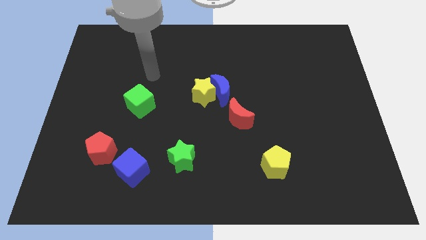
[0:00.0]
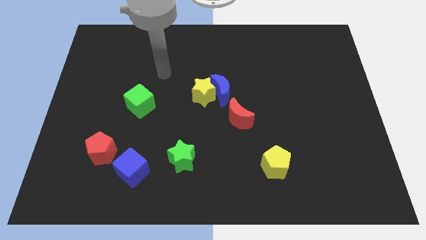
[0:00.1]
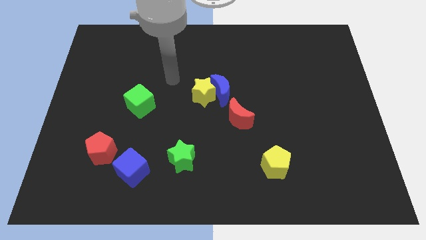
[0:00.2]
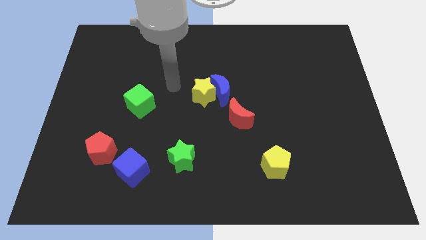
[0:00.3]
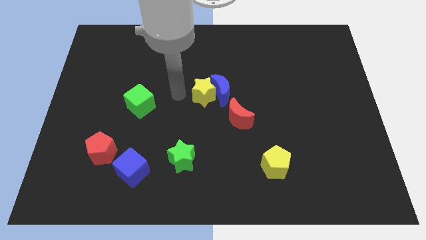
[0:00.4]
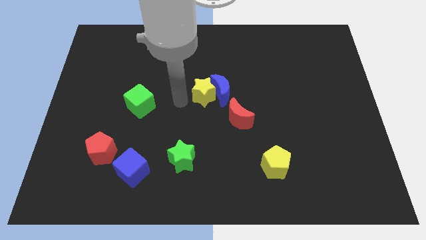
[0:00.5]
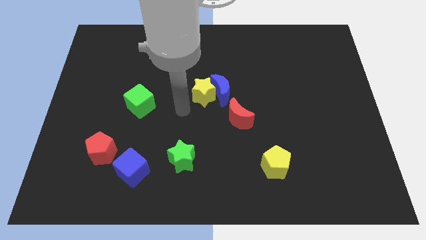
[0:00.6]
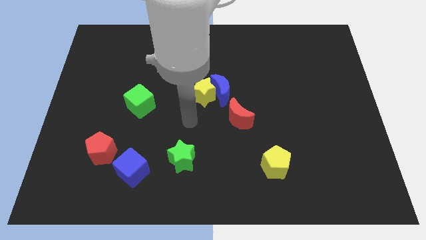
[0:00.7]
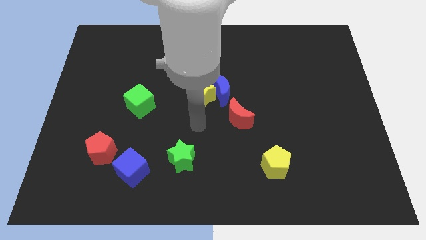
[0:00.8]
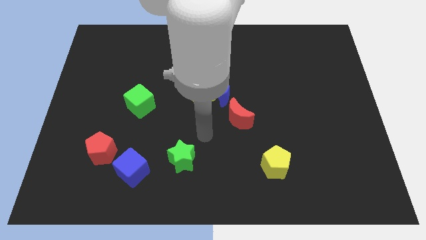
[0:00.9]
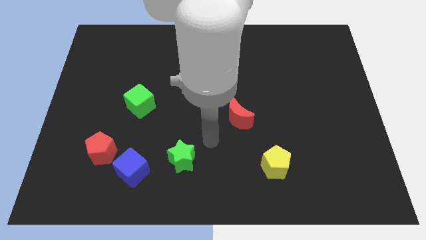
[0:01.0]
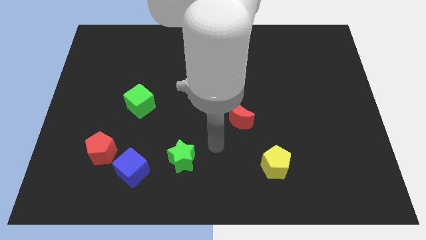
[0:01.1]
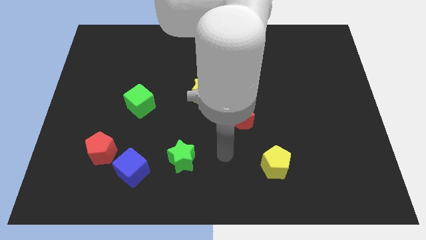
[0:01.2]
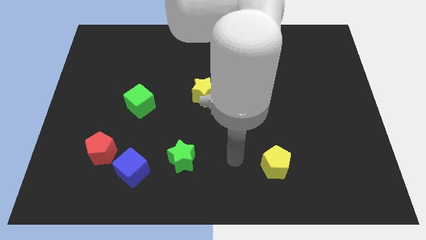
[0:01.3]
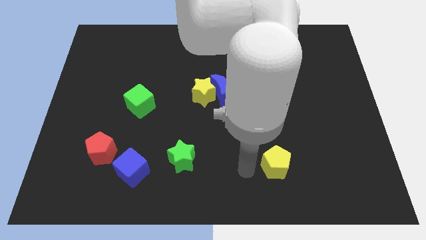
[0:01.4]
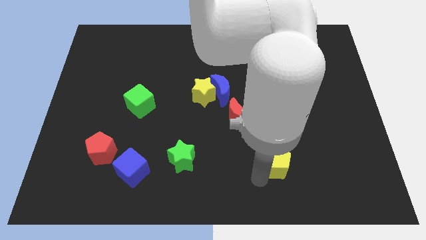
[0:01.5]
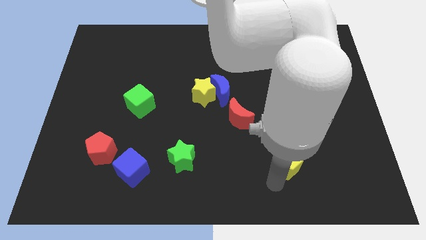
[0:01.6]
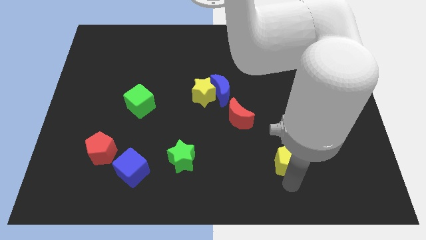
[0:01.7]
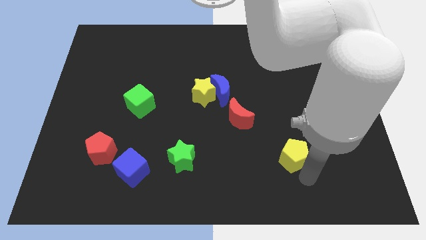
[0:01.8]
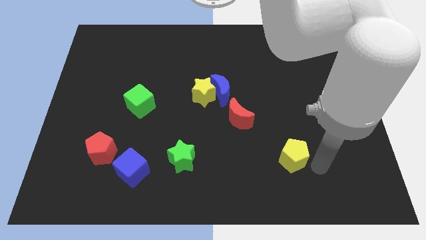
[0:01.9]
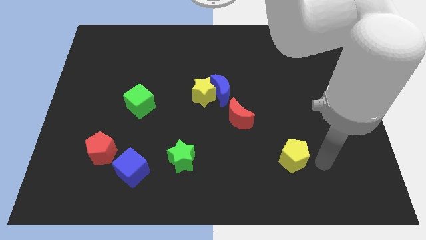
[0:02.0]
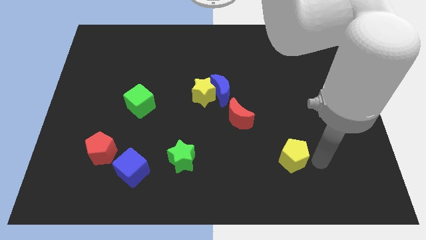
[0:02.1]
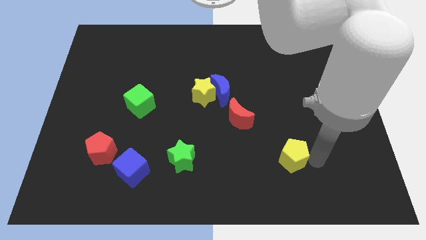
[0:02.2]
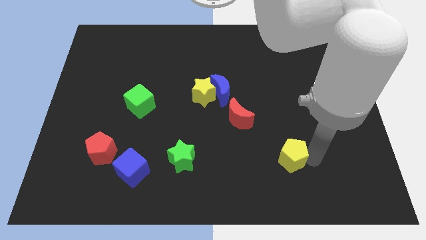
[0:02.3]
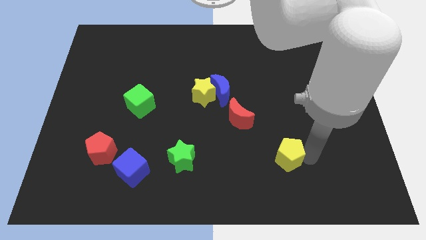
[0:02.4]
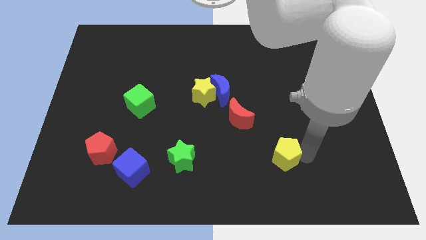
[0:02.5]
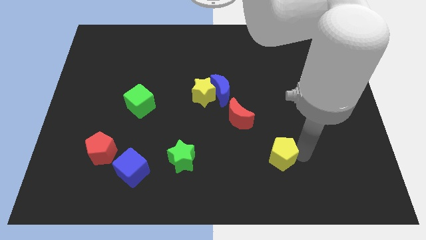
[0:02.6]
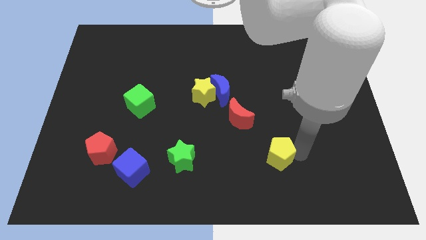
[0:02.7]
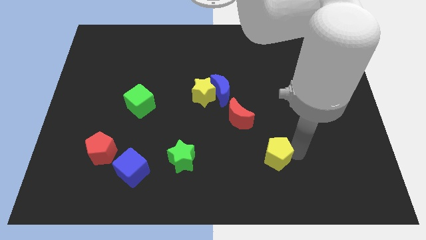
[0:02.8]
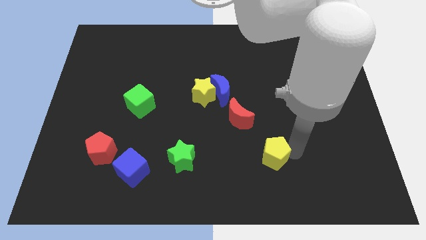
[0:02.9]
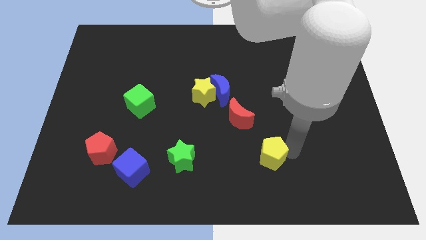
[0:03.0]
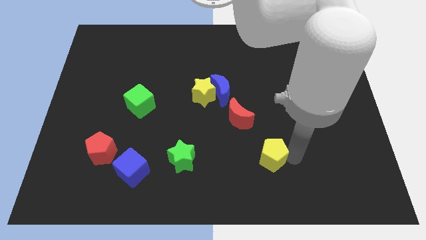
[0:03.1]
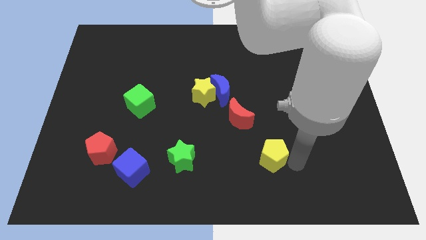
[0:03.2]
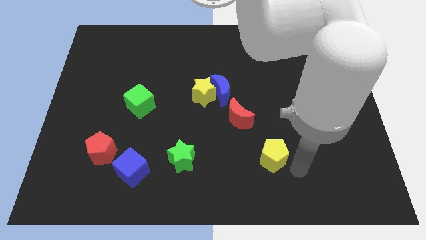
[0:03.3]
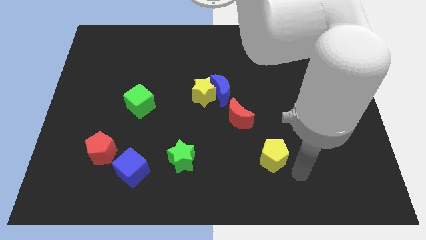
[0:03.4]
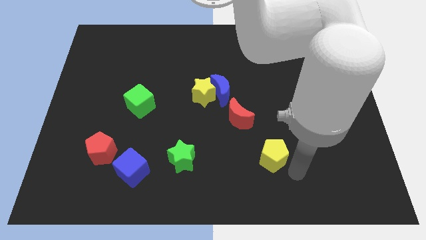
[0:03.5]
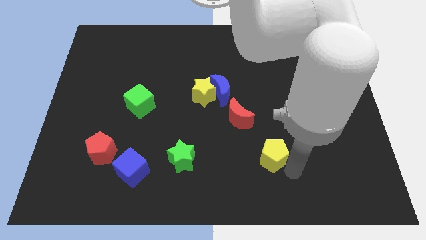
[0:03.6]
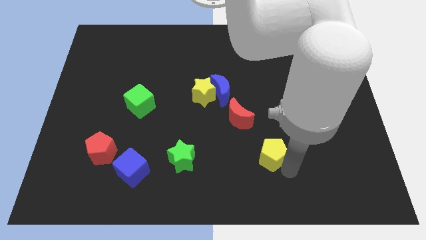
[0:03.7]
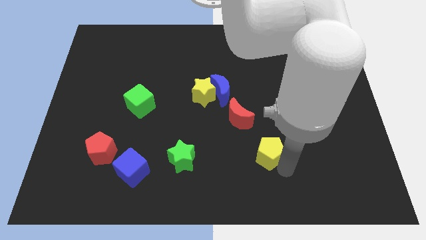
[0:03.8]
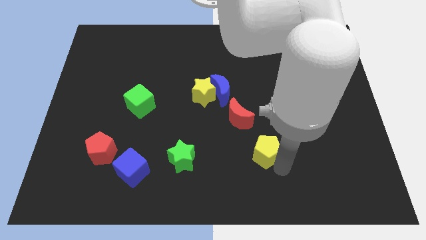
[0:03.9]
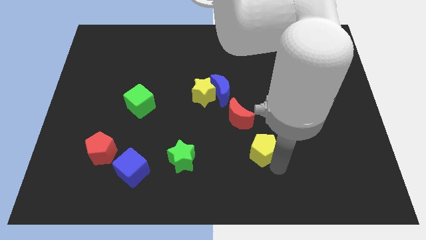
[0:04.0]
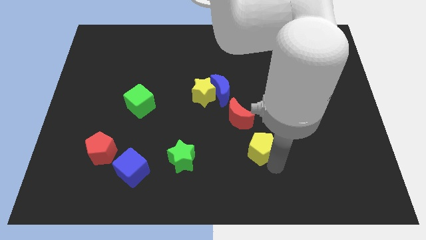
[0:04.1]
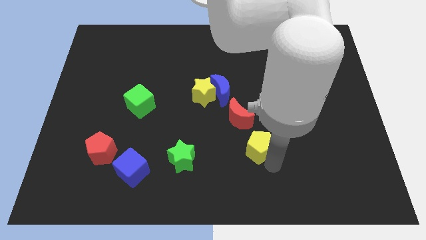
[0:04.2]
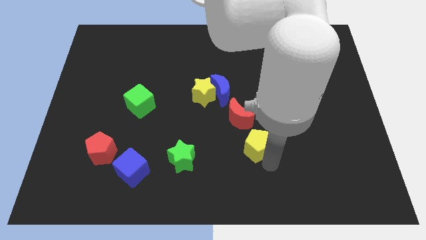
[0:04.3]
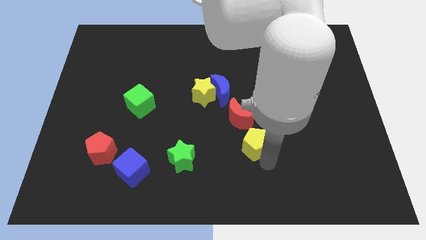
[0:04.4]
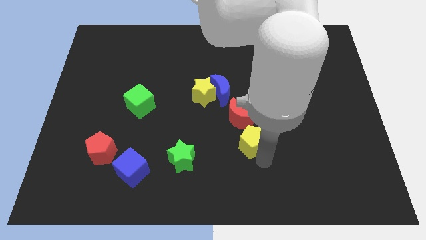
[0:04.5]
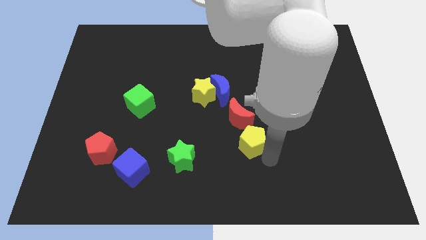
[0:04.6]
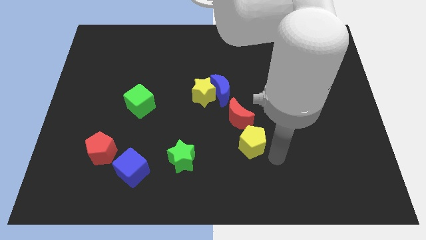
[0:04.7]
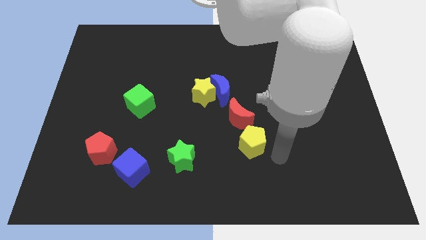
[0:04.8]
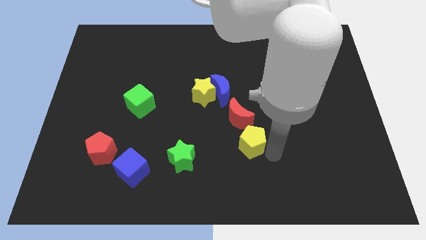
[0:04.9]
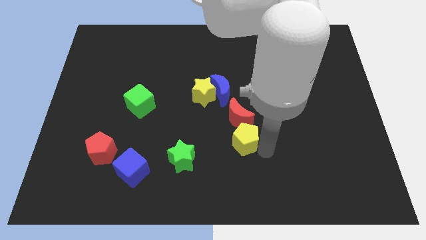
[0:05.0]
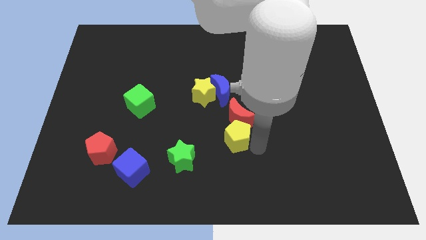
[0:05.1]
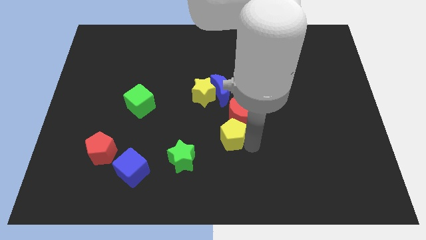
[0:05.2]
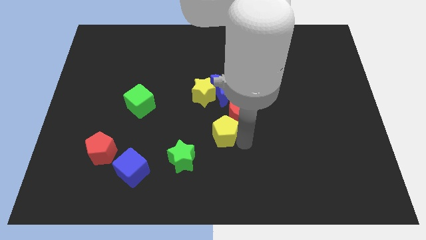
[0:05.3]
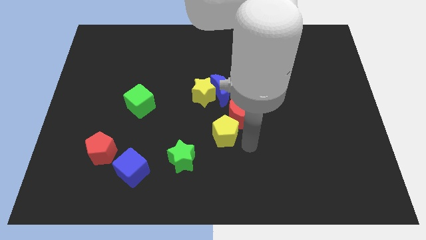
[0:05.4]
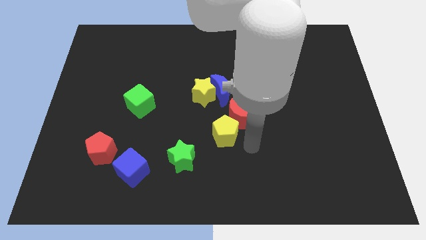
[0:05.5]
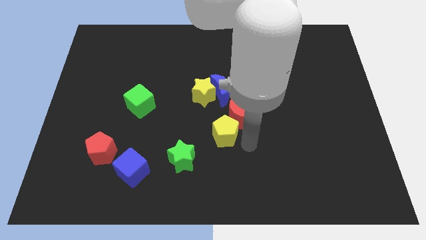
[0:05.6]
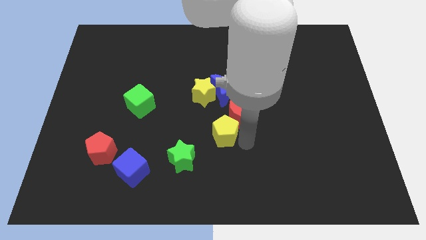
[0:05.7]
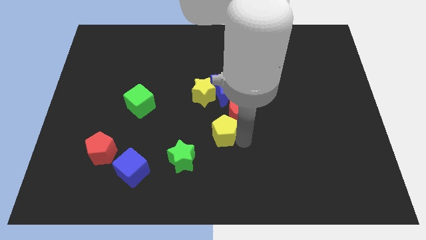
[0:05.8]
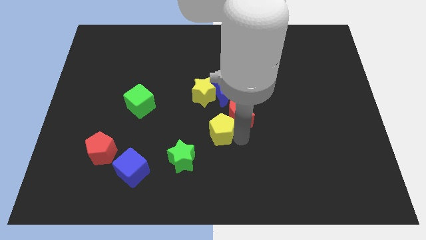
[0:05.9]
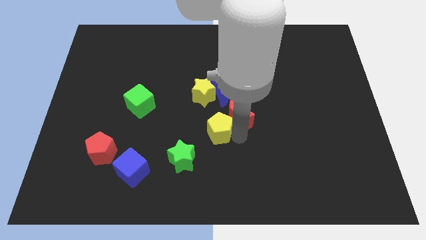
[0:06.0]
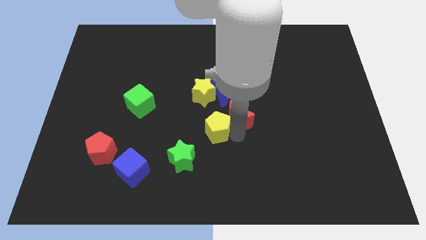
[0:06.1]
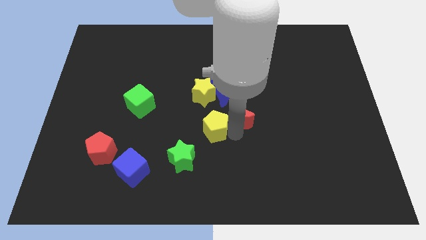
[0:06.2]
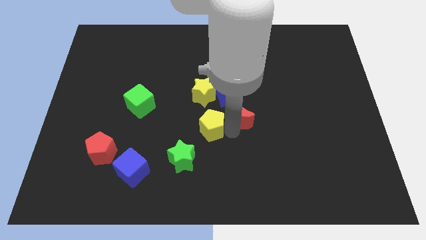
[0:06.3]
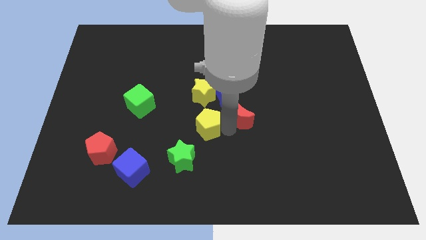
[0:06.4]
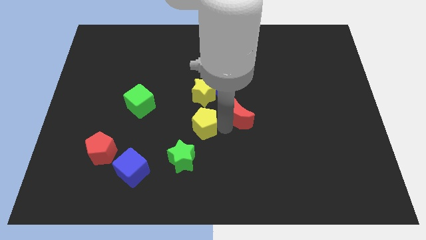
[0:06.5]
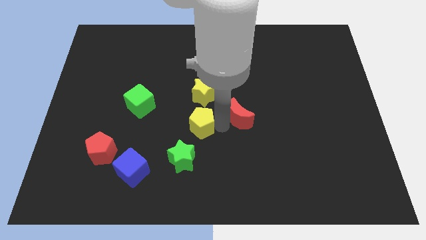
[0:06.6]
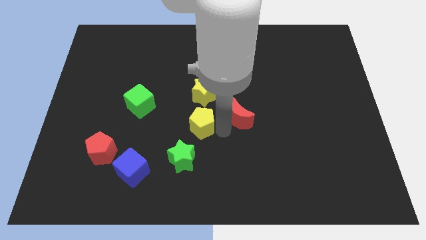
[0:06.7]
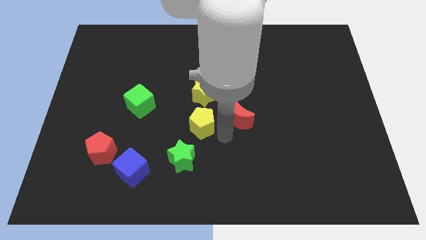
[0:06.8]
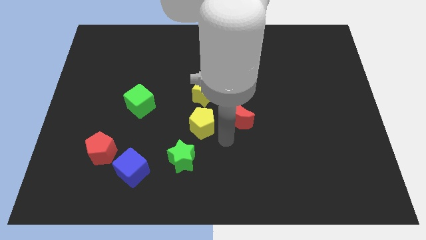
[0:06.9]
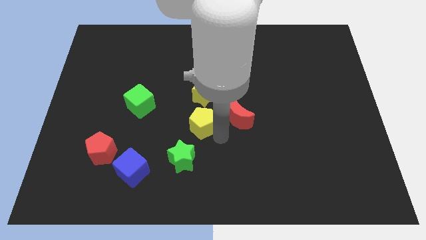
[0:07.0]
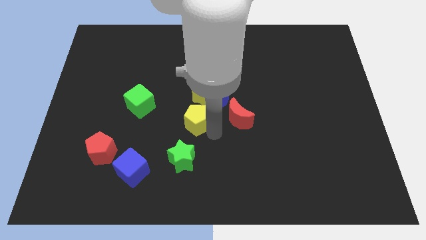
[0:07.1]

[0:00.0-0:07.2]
move the yellow pentagon diagonally down and to the left of the yellow star

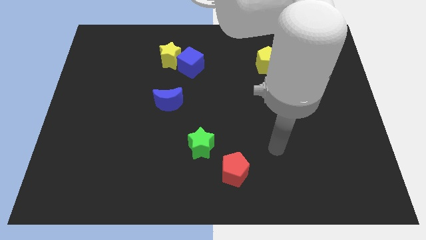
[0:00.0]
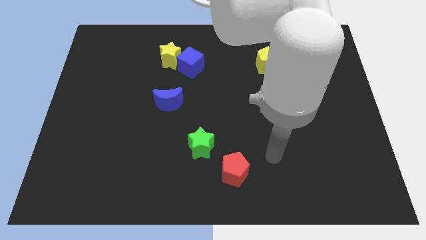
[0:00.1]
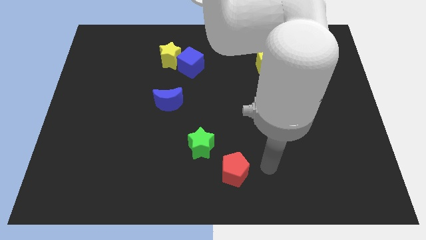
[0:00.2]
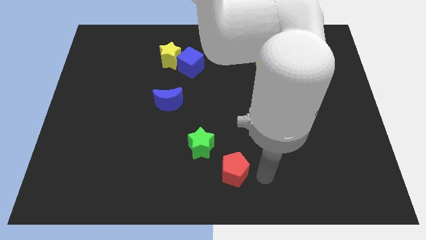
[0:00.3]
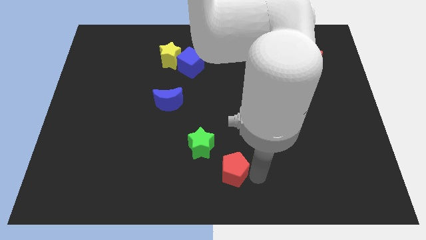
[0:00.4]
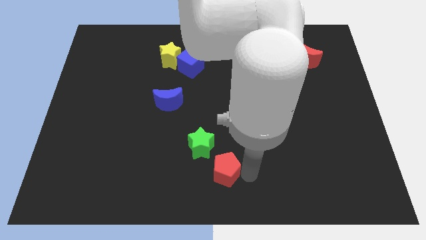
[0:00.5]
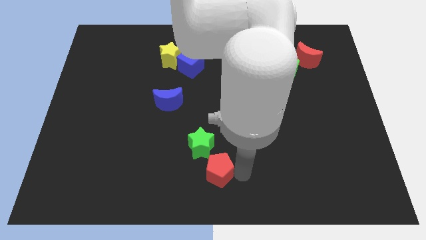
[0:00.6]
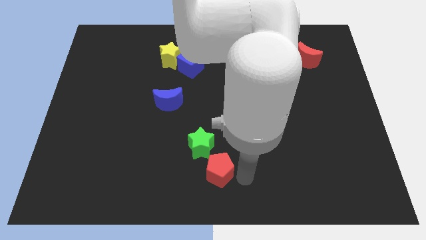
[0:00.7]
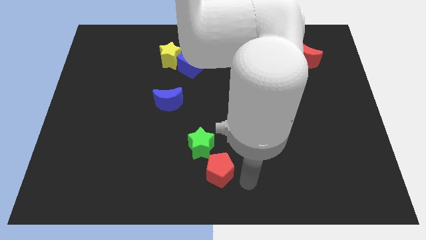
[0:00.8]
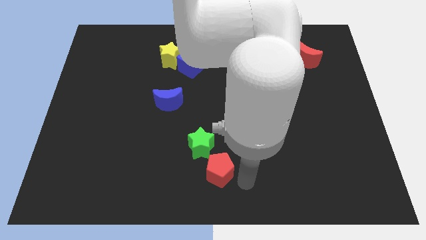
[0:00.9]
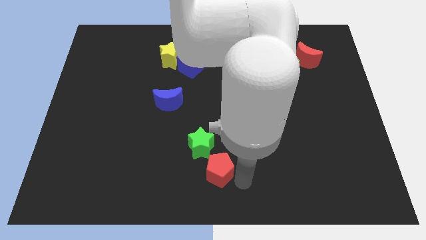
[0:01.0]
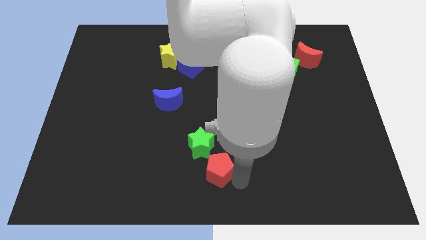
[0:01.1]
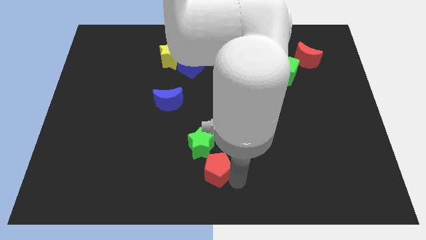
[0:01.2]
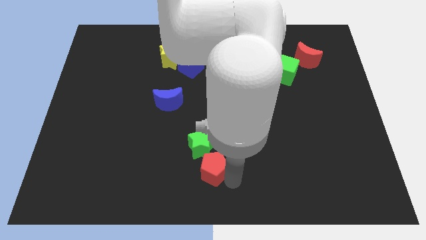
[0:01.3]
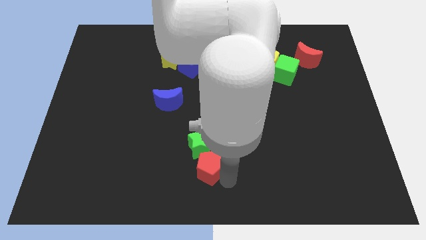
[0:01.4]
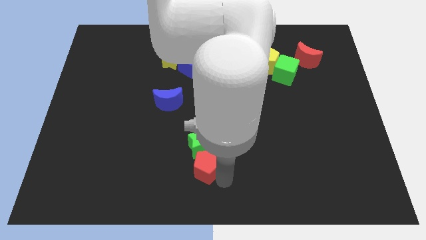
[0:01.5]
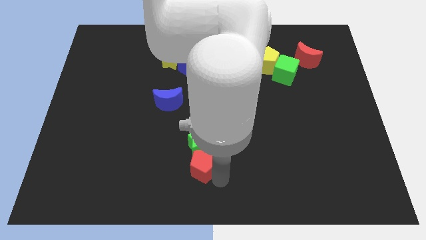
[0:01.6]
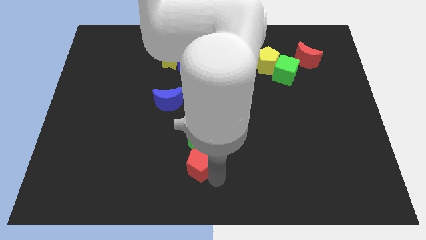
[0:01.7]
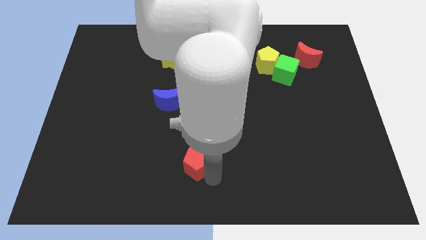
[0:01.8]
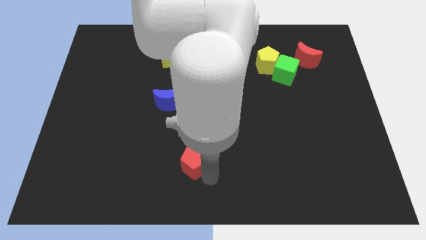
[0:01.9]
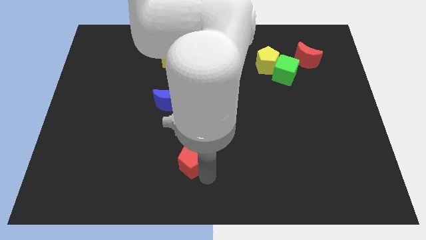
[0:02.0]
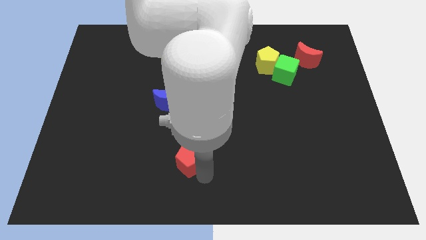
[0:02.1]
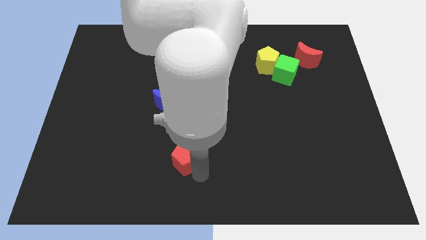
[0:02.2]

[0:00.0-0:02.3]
move the red pentagon left of the green star
